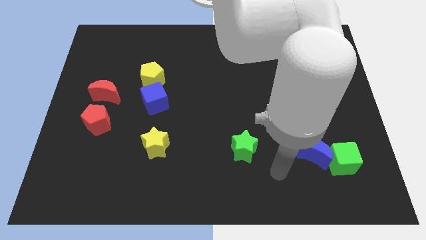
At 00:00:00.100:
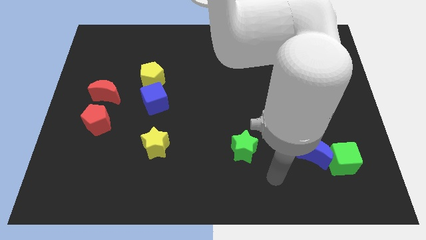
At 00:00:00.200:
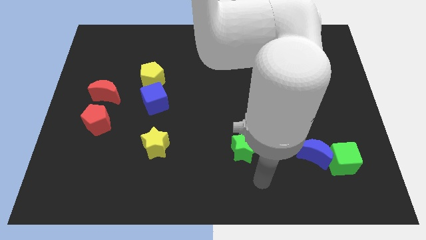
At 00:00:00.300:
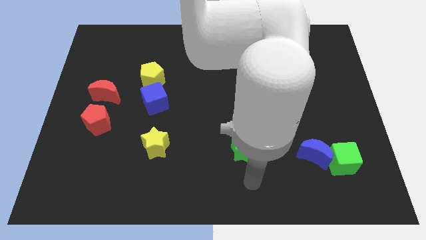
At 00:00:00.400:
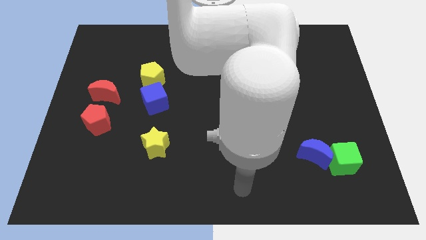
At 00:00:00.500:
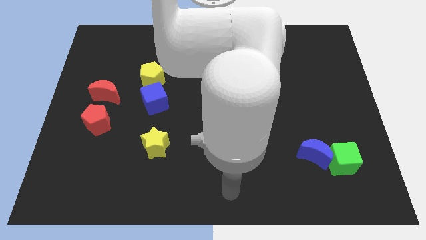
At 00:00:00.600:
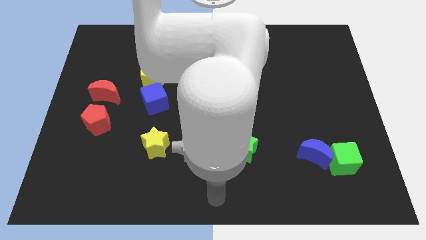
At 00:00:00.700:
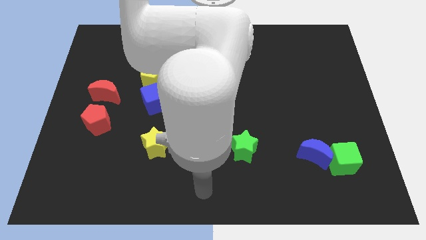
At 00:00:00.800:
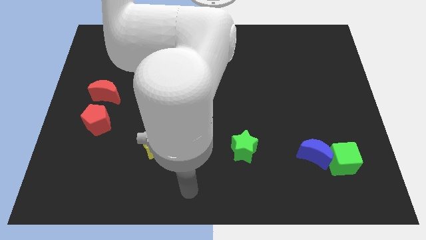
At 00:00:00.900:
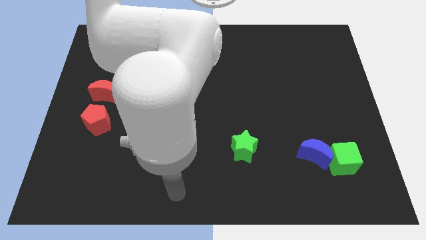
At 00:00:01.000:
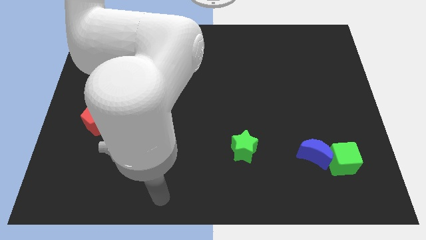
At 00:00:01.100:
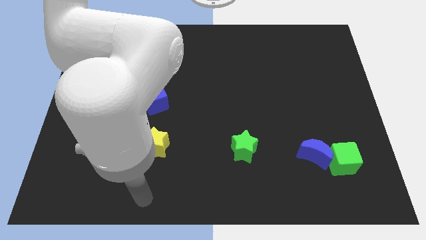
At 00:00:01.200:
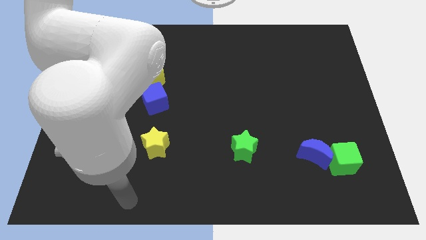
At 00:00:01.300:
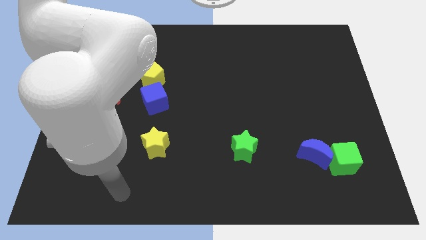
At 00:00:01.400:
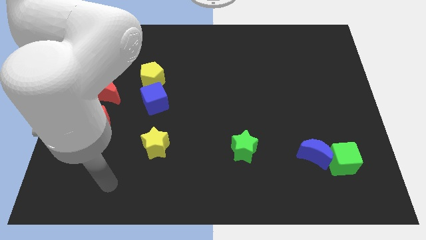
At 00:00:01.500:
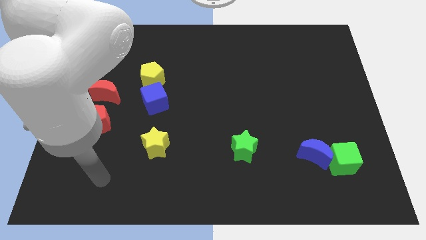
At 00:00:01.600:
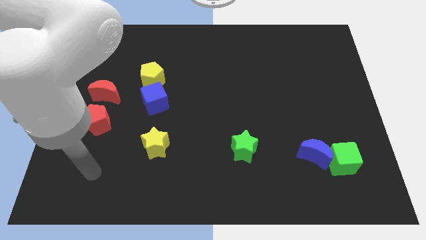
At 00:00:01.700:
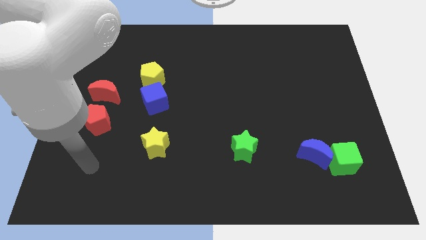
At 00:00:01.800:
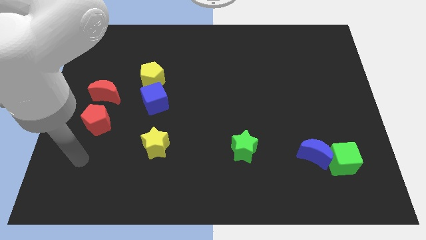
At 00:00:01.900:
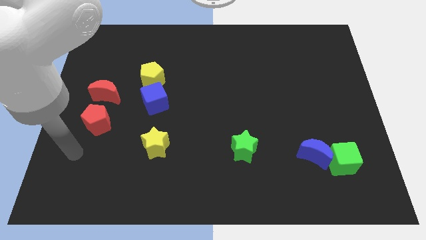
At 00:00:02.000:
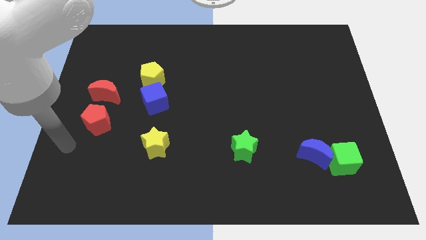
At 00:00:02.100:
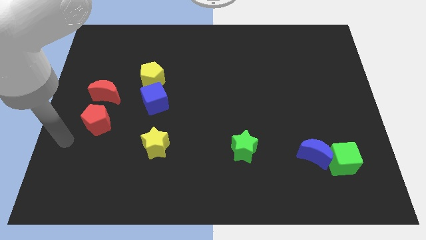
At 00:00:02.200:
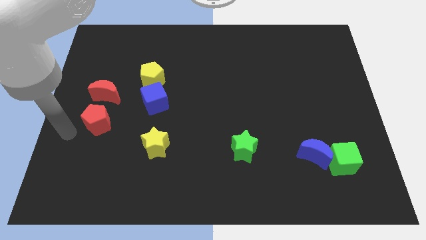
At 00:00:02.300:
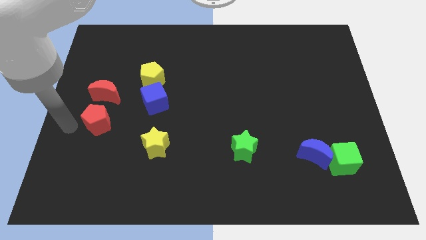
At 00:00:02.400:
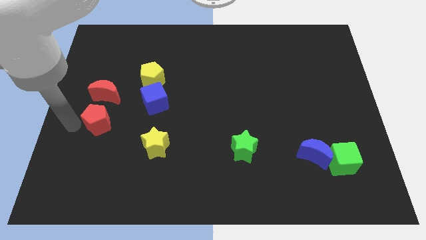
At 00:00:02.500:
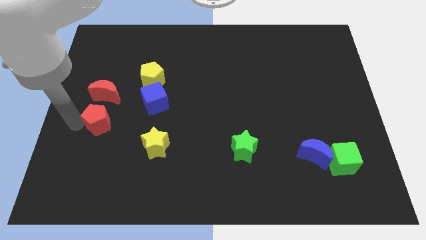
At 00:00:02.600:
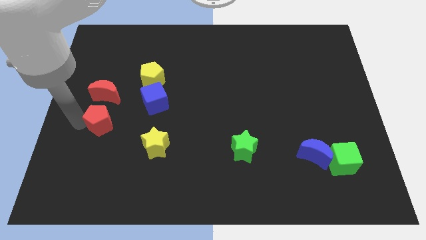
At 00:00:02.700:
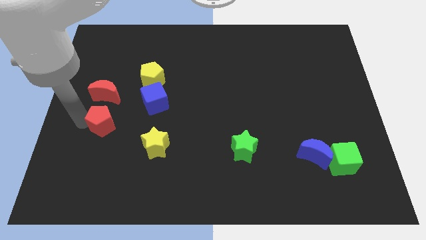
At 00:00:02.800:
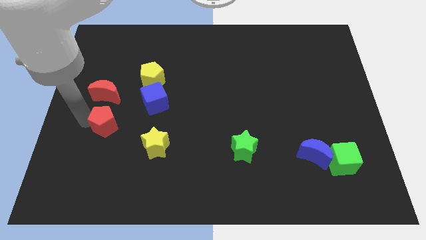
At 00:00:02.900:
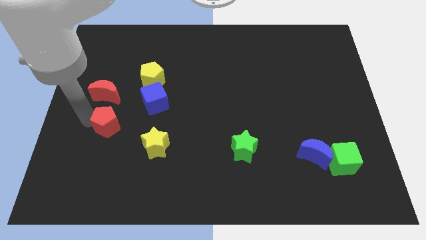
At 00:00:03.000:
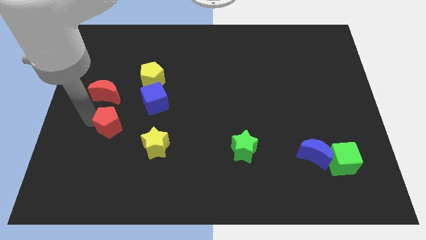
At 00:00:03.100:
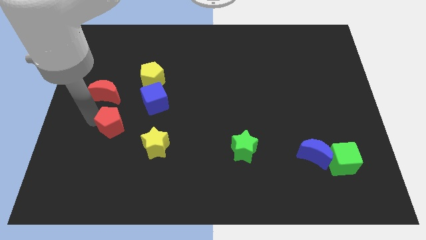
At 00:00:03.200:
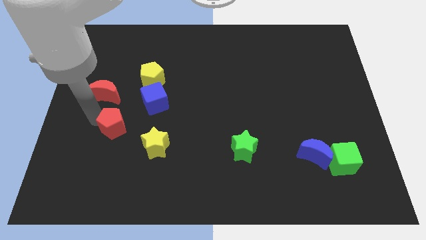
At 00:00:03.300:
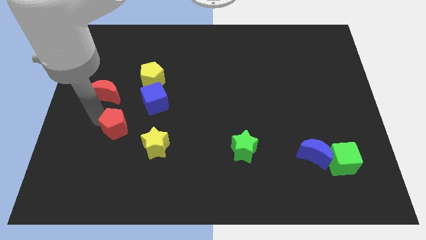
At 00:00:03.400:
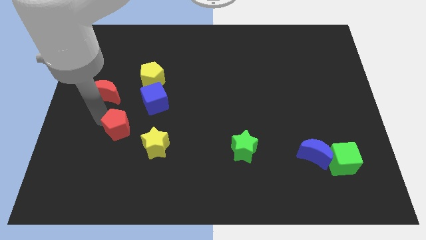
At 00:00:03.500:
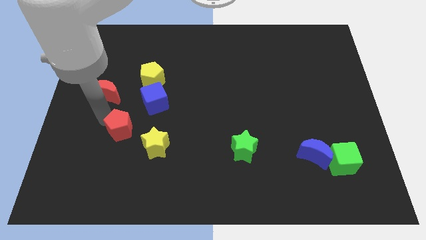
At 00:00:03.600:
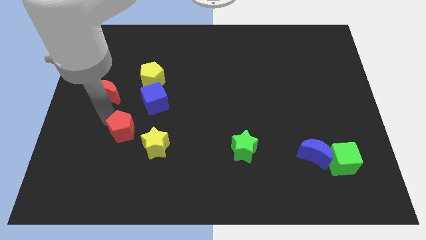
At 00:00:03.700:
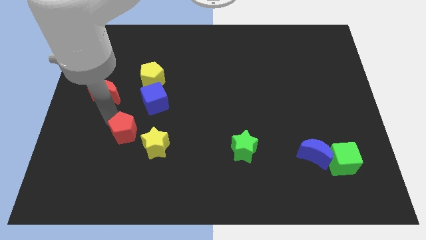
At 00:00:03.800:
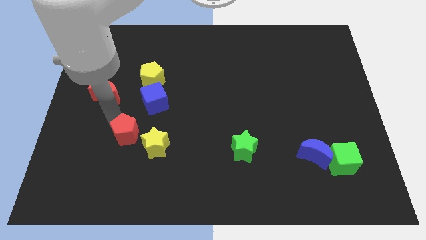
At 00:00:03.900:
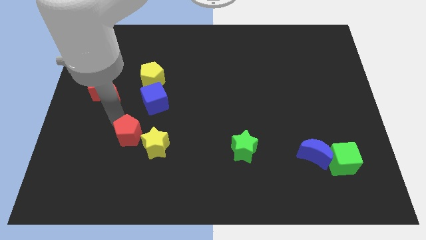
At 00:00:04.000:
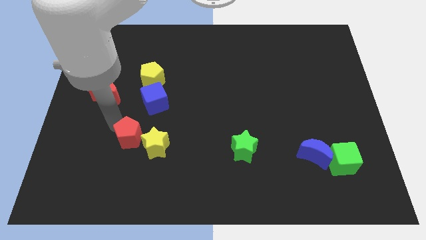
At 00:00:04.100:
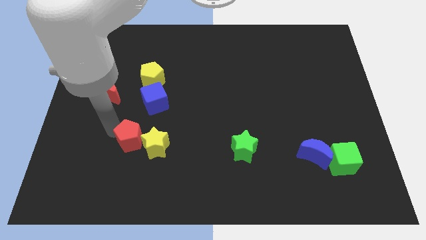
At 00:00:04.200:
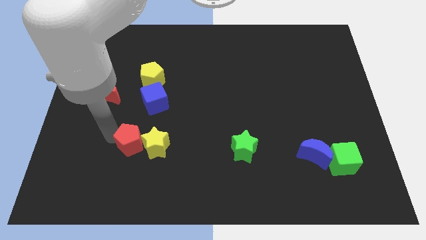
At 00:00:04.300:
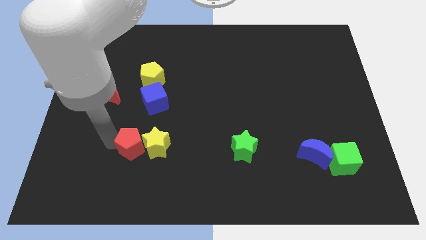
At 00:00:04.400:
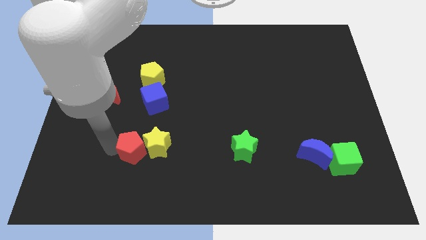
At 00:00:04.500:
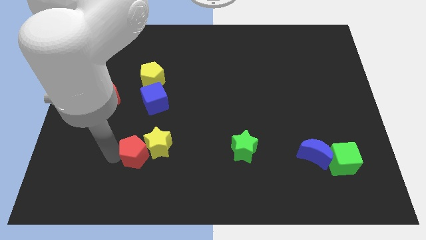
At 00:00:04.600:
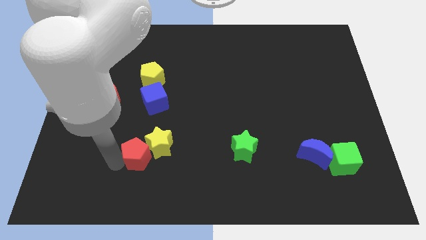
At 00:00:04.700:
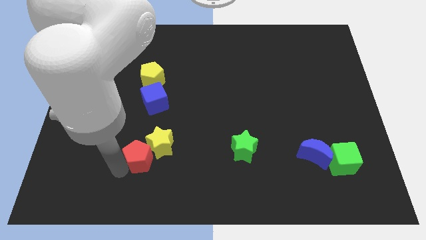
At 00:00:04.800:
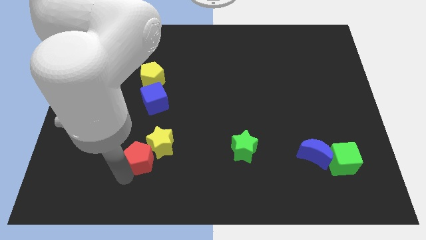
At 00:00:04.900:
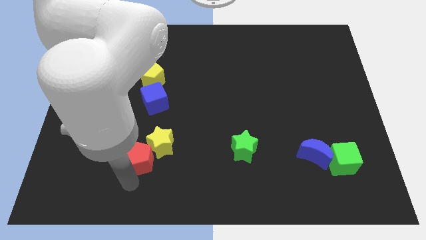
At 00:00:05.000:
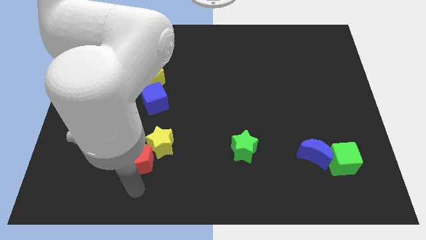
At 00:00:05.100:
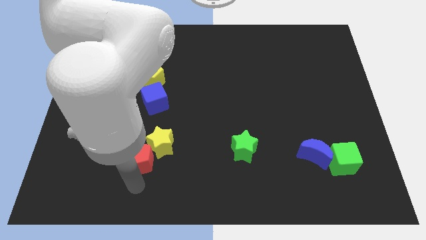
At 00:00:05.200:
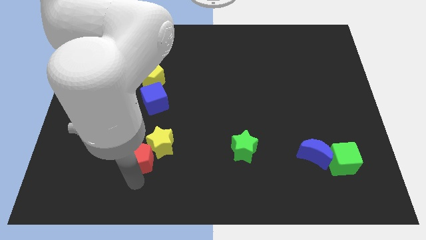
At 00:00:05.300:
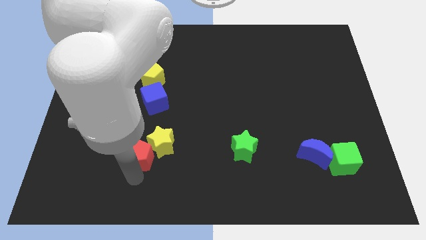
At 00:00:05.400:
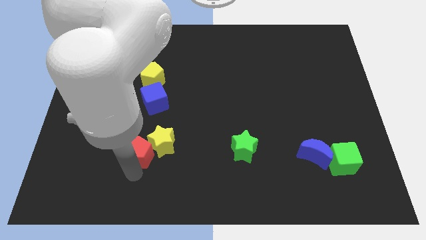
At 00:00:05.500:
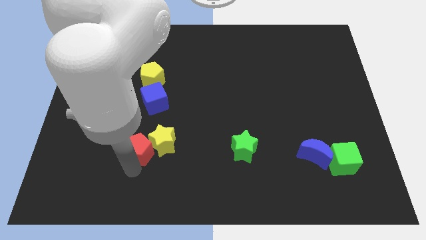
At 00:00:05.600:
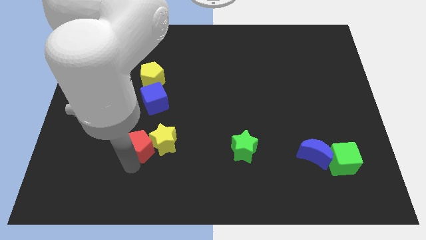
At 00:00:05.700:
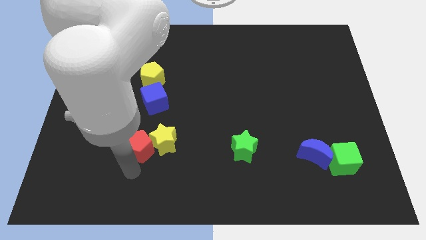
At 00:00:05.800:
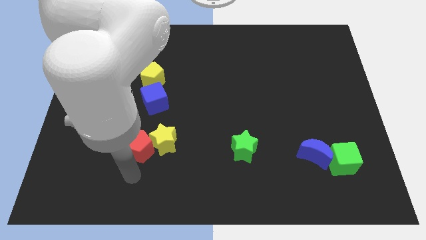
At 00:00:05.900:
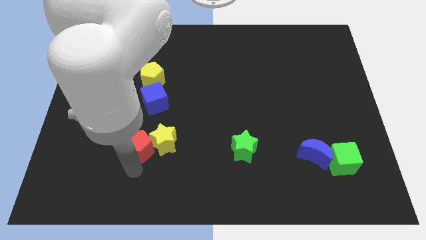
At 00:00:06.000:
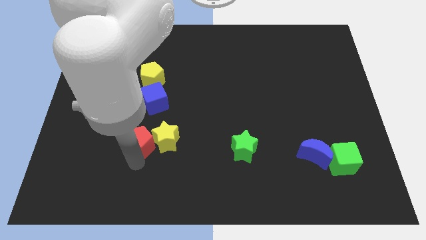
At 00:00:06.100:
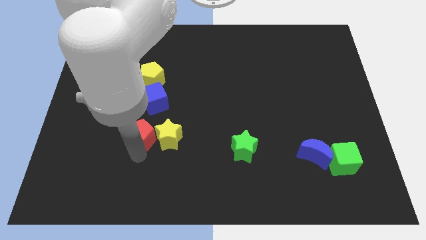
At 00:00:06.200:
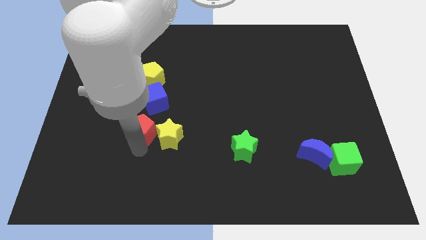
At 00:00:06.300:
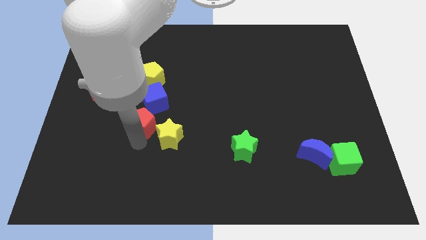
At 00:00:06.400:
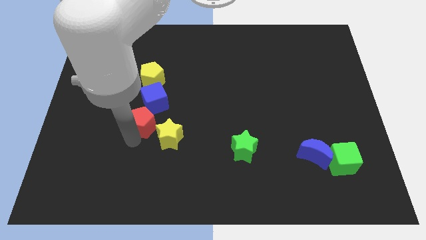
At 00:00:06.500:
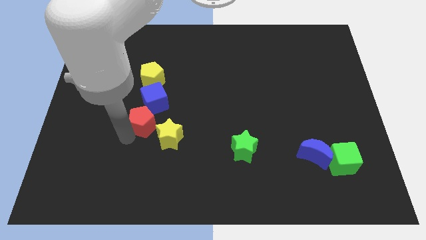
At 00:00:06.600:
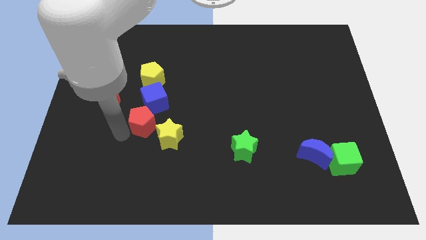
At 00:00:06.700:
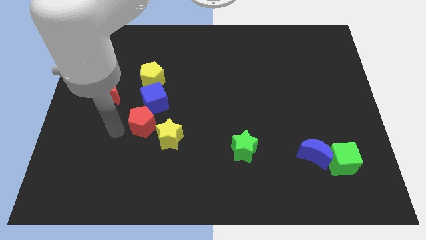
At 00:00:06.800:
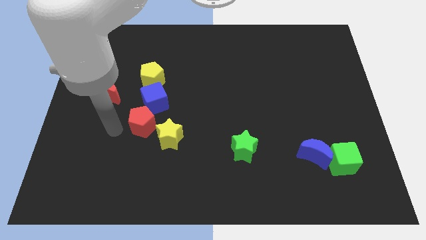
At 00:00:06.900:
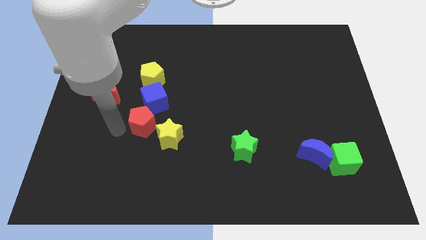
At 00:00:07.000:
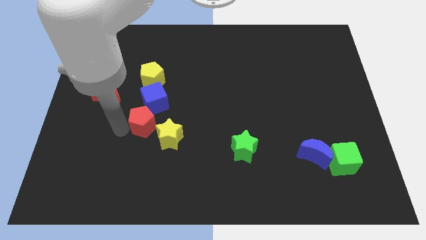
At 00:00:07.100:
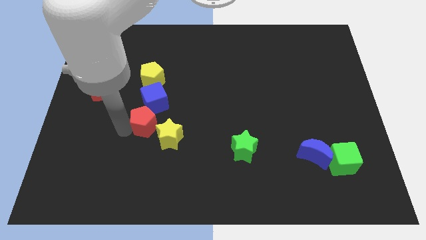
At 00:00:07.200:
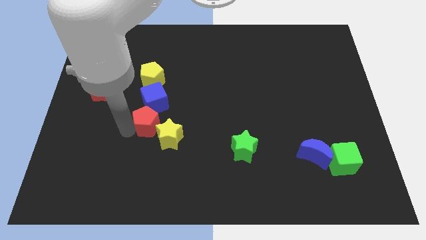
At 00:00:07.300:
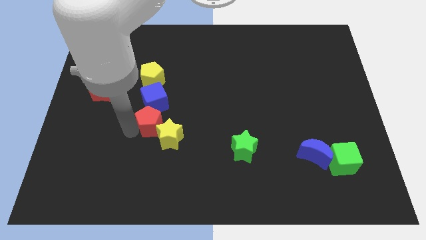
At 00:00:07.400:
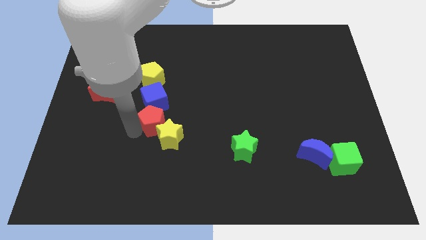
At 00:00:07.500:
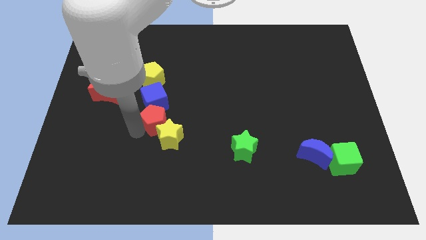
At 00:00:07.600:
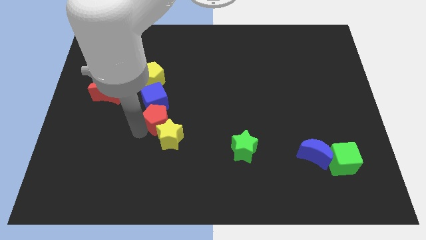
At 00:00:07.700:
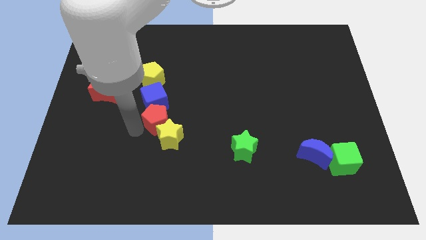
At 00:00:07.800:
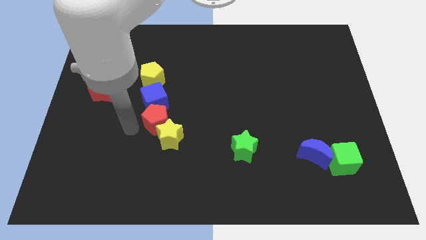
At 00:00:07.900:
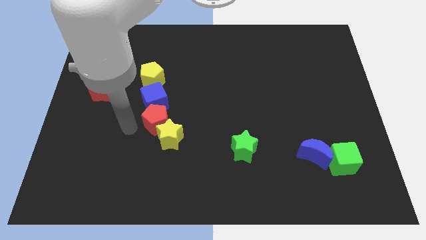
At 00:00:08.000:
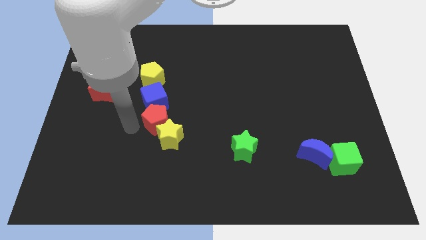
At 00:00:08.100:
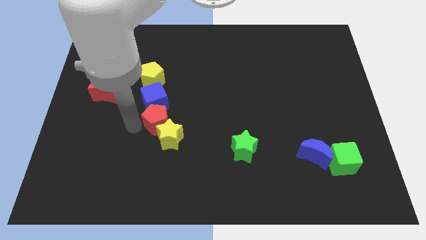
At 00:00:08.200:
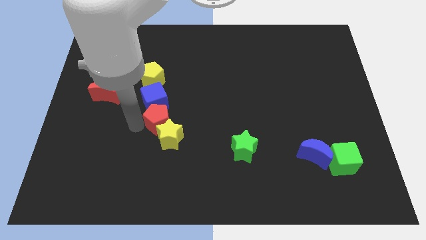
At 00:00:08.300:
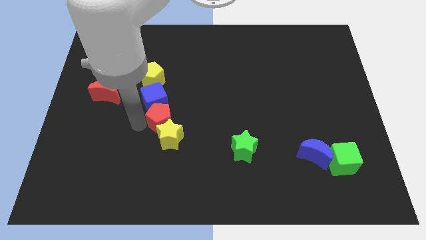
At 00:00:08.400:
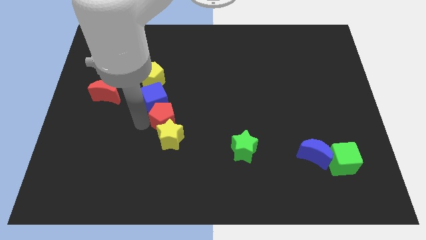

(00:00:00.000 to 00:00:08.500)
slide the red pentagon to the middle of the board
